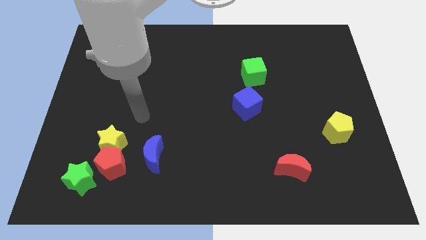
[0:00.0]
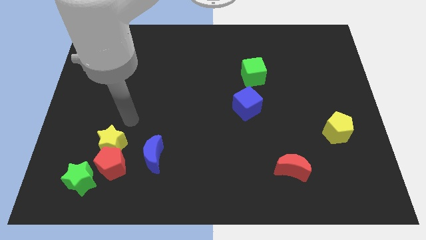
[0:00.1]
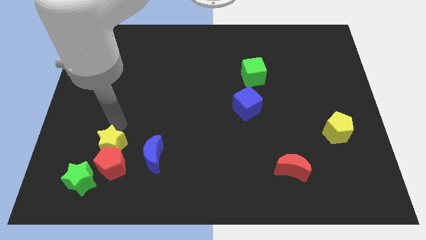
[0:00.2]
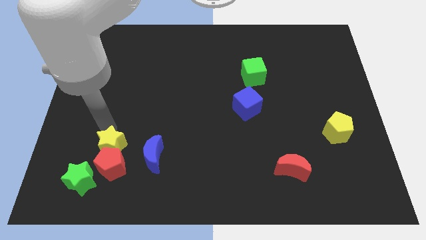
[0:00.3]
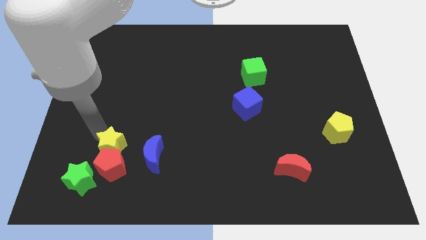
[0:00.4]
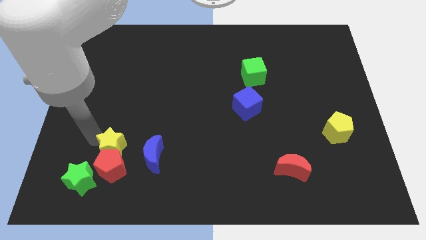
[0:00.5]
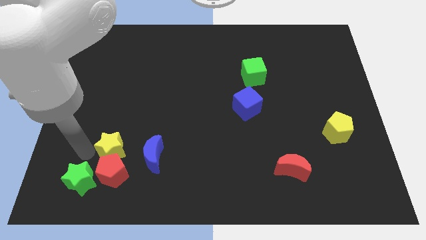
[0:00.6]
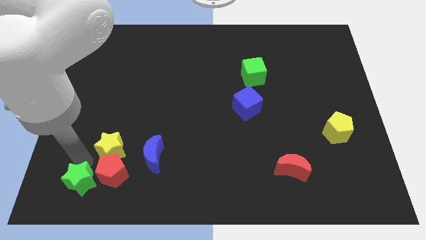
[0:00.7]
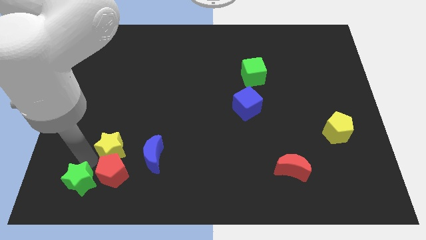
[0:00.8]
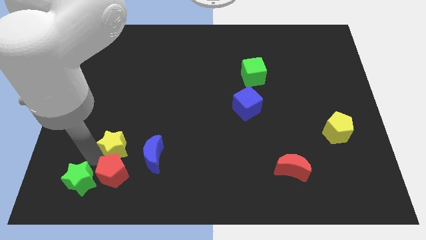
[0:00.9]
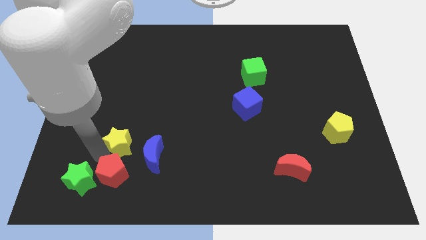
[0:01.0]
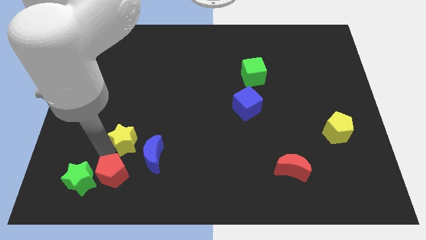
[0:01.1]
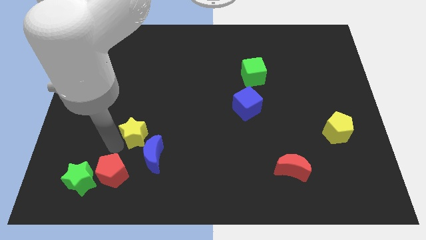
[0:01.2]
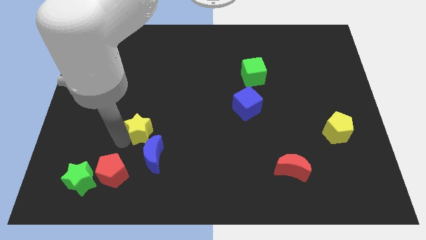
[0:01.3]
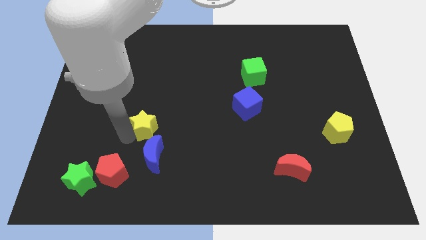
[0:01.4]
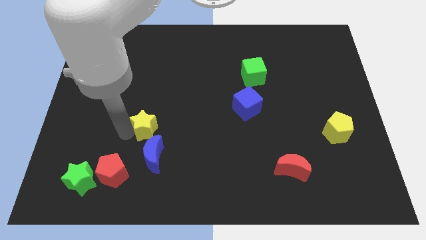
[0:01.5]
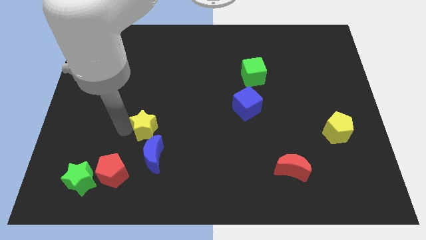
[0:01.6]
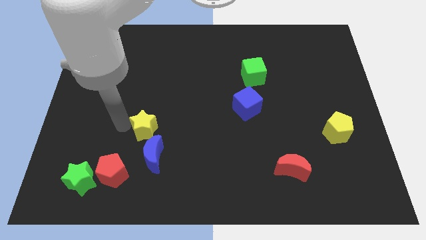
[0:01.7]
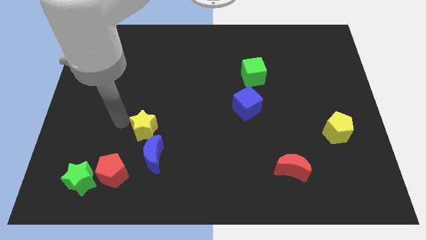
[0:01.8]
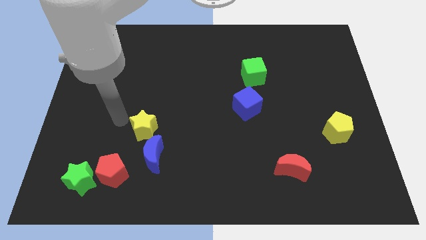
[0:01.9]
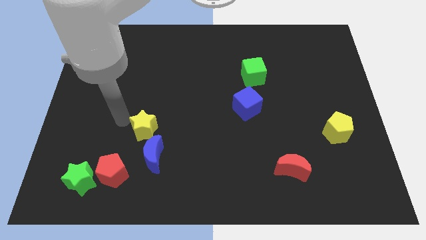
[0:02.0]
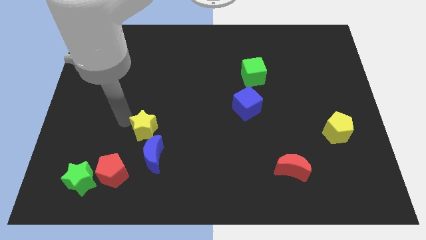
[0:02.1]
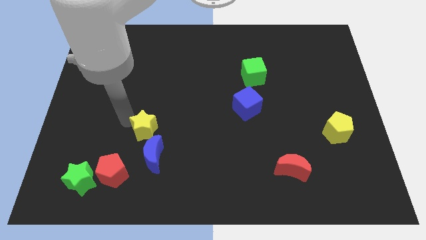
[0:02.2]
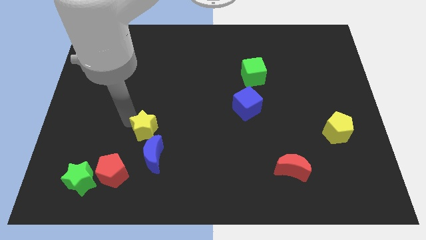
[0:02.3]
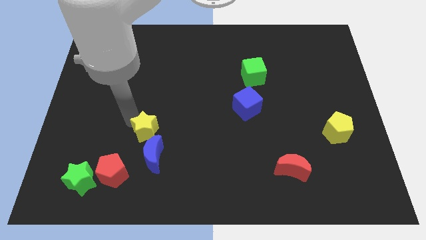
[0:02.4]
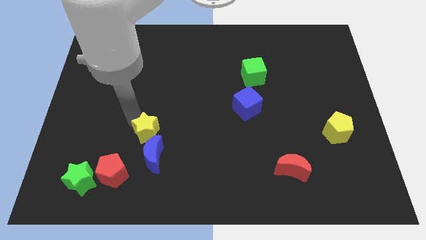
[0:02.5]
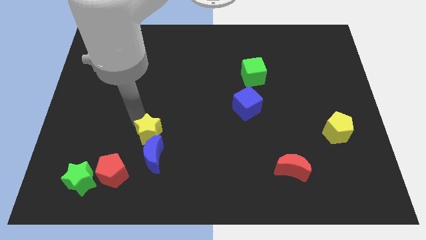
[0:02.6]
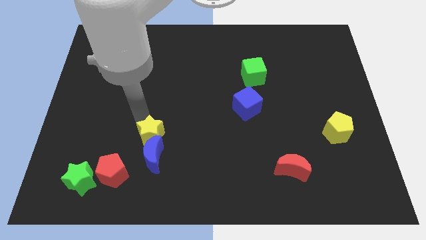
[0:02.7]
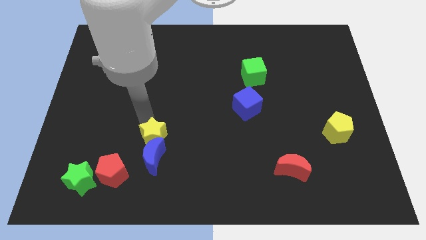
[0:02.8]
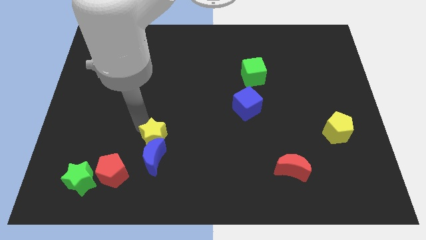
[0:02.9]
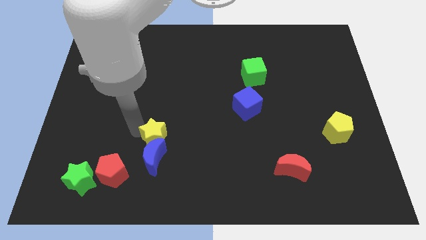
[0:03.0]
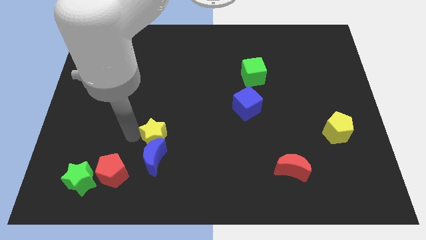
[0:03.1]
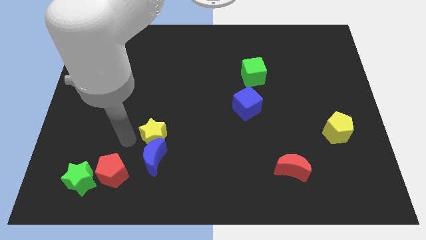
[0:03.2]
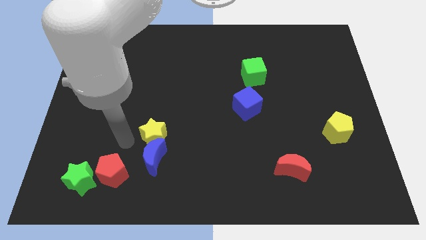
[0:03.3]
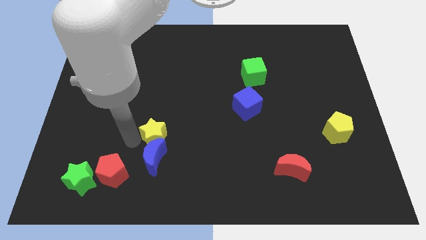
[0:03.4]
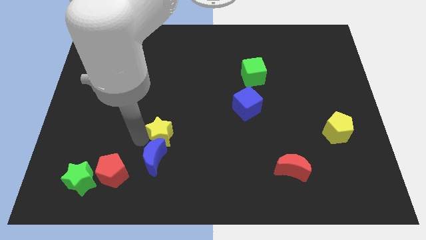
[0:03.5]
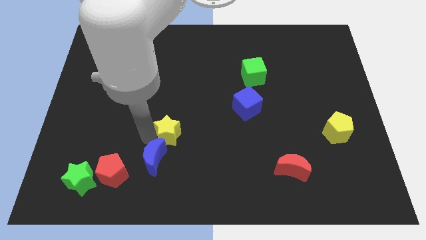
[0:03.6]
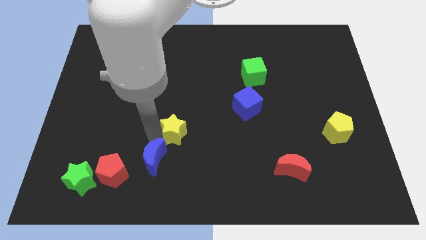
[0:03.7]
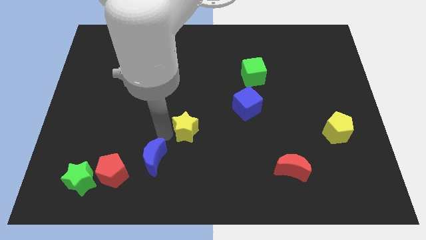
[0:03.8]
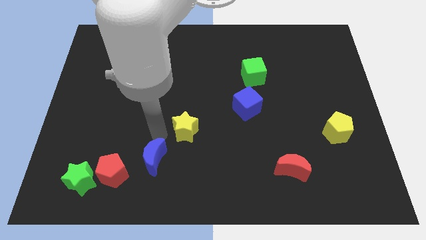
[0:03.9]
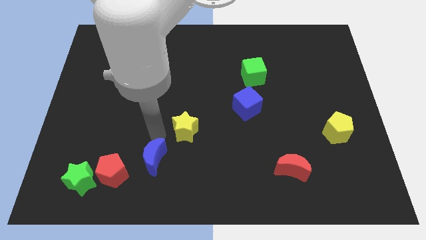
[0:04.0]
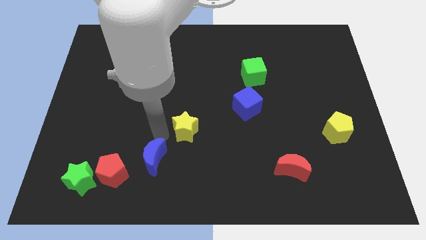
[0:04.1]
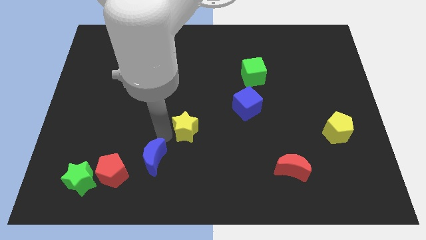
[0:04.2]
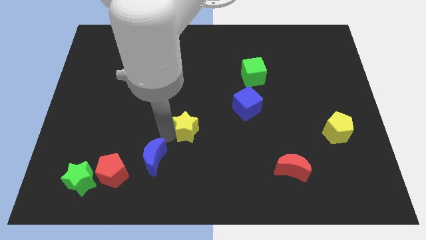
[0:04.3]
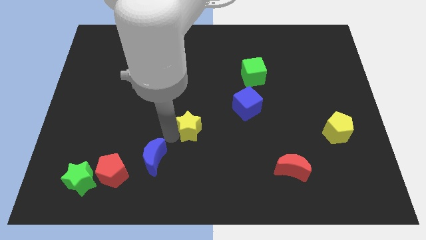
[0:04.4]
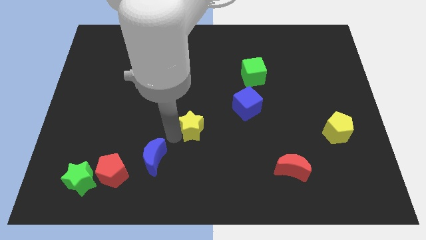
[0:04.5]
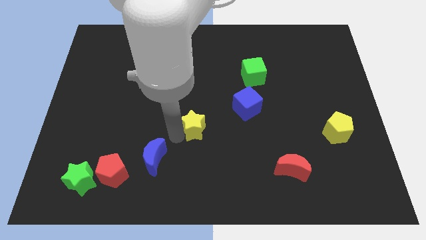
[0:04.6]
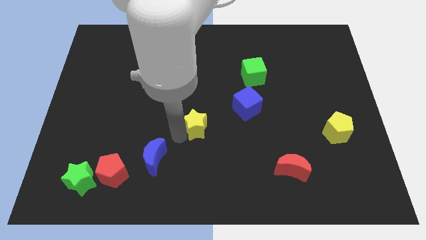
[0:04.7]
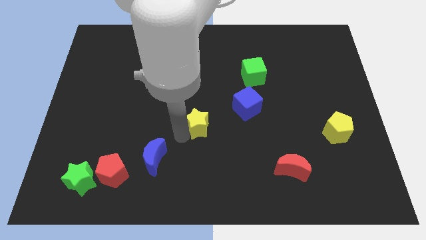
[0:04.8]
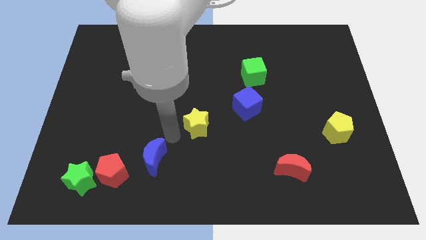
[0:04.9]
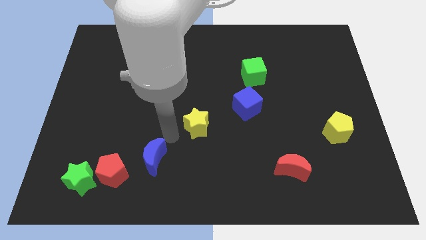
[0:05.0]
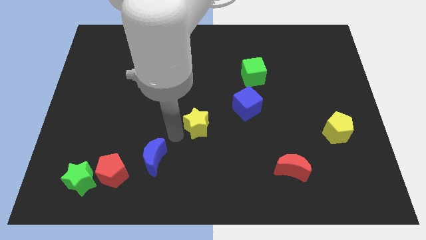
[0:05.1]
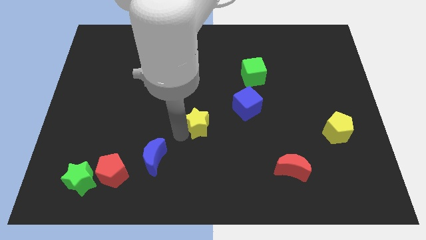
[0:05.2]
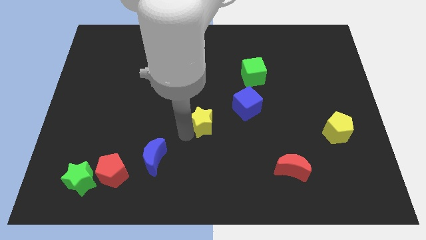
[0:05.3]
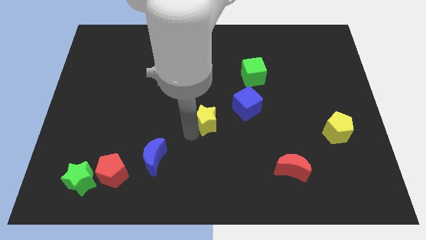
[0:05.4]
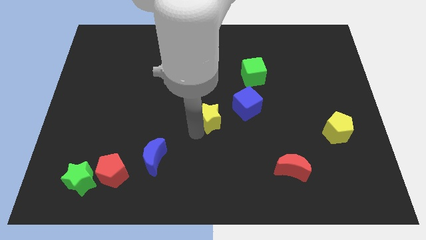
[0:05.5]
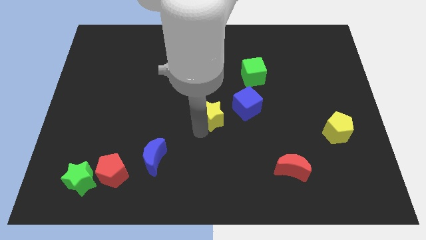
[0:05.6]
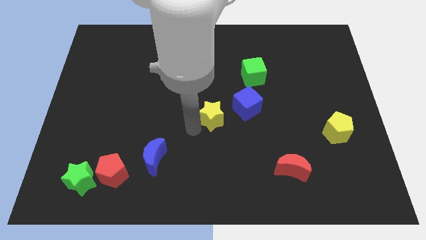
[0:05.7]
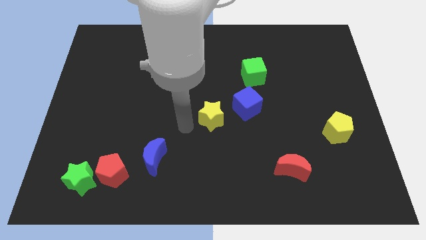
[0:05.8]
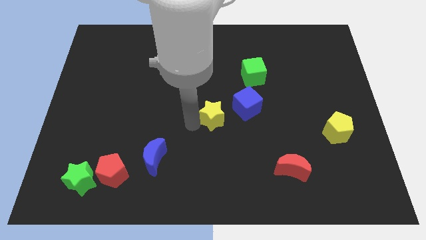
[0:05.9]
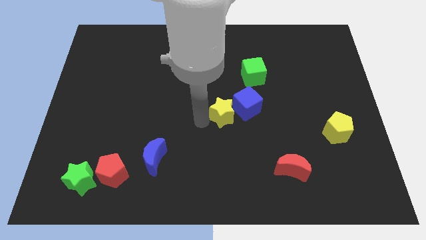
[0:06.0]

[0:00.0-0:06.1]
move the yellow star next to the blue cube

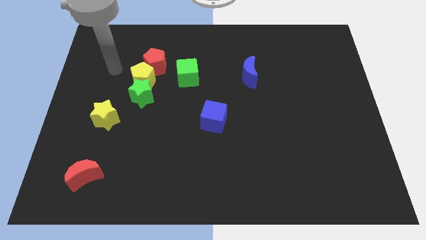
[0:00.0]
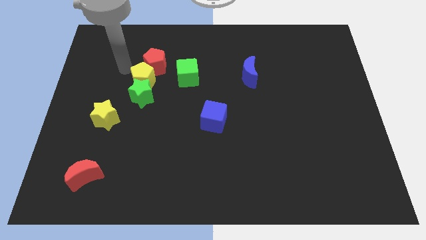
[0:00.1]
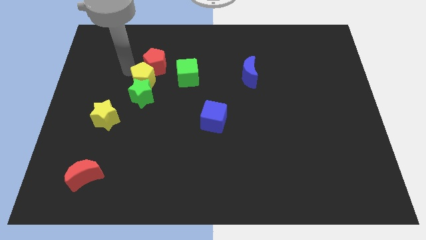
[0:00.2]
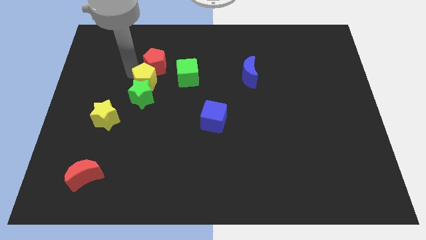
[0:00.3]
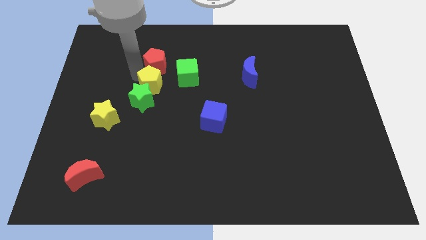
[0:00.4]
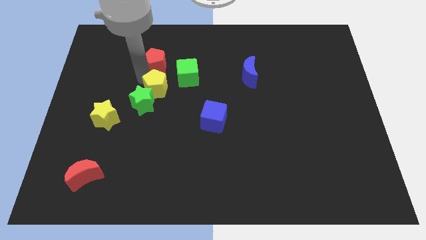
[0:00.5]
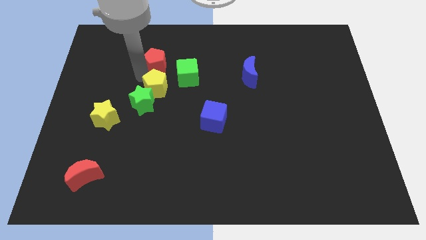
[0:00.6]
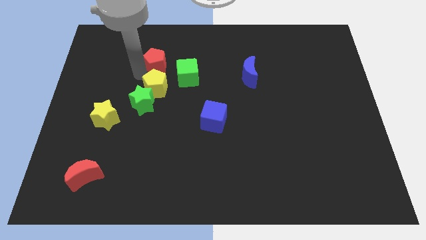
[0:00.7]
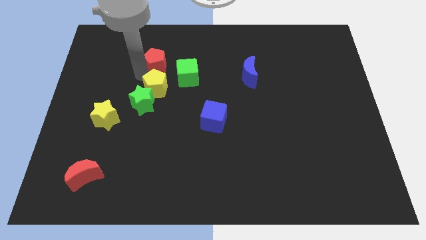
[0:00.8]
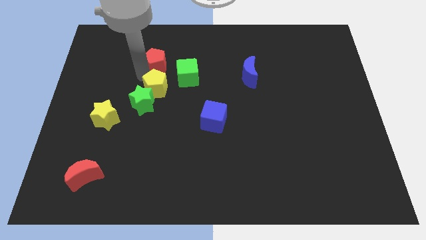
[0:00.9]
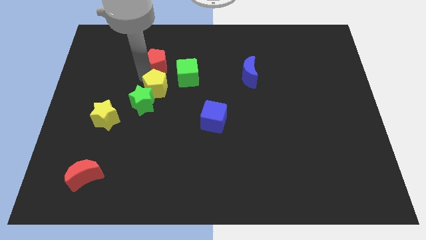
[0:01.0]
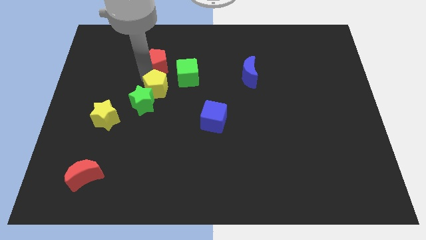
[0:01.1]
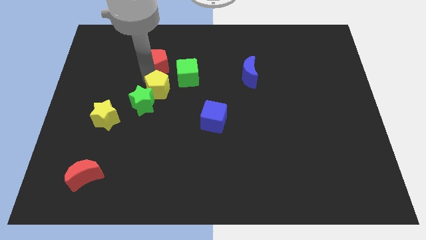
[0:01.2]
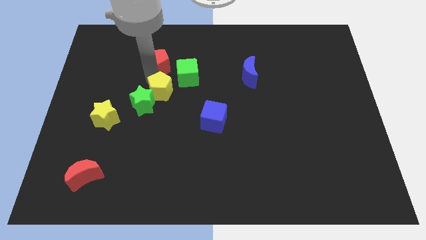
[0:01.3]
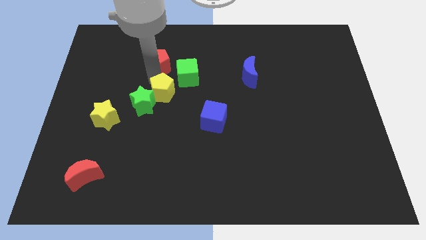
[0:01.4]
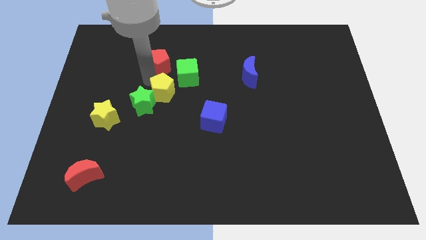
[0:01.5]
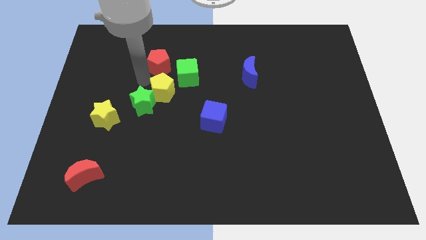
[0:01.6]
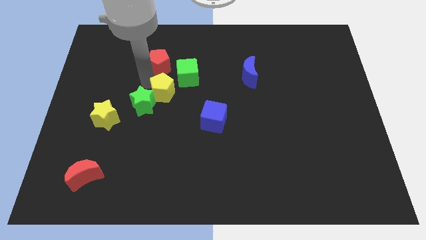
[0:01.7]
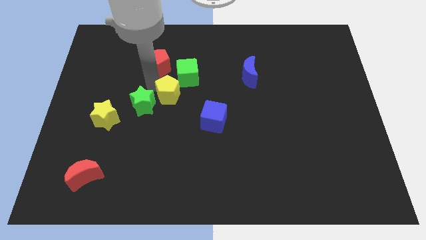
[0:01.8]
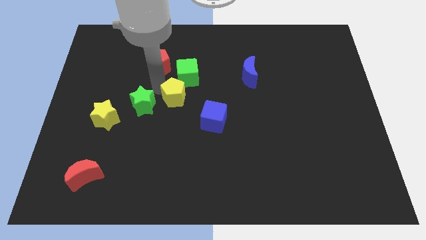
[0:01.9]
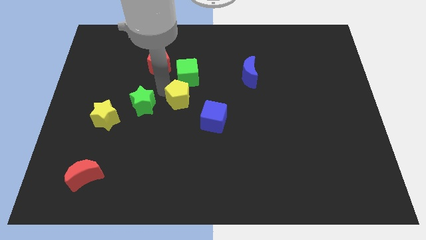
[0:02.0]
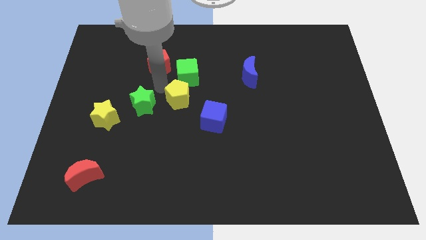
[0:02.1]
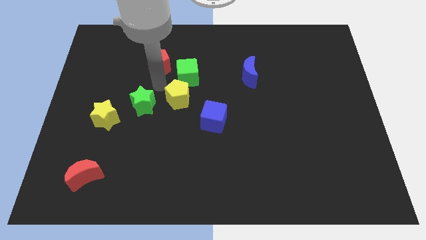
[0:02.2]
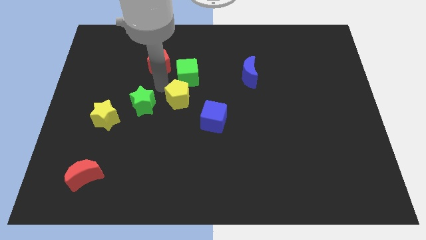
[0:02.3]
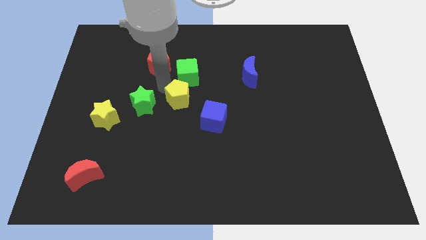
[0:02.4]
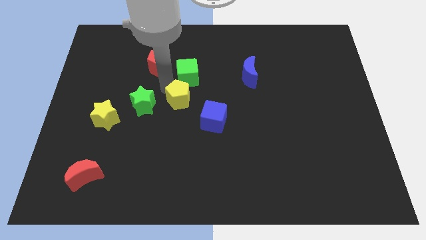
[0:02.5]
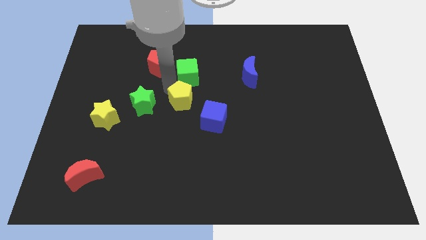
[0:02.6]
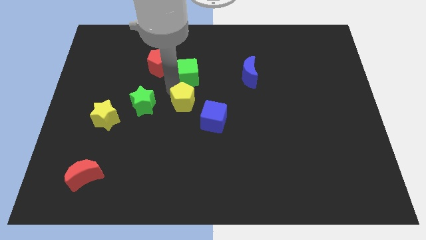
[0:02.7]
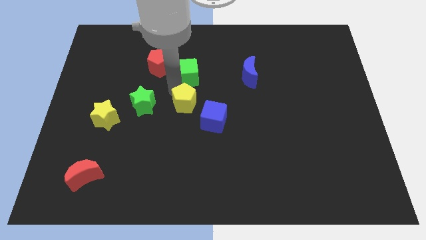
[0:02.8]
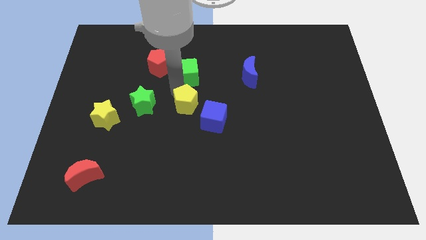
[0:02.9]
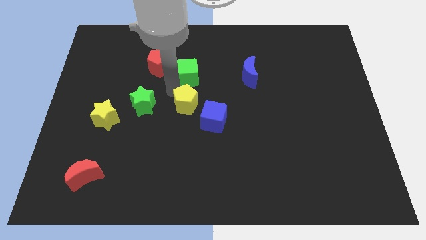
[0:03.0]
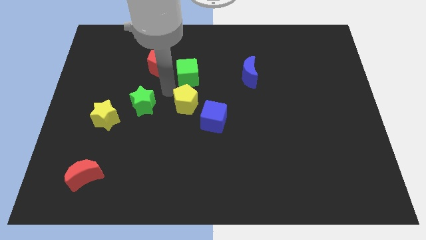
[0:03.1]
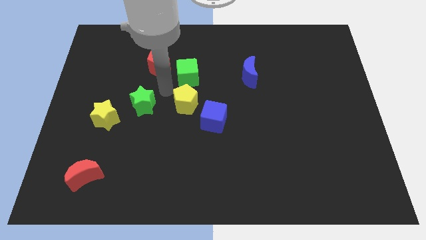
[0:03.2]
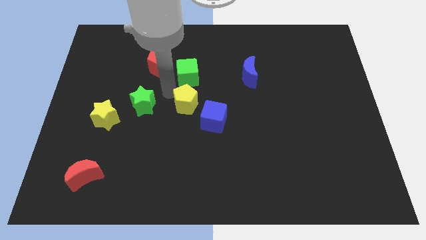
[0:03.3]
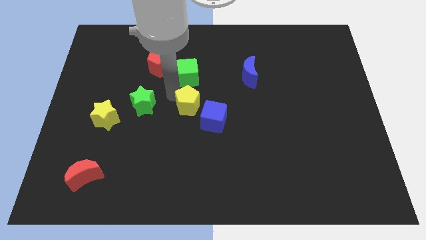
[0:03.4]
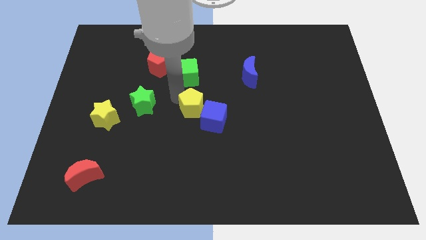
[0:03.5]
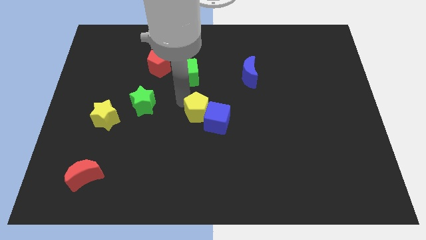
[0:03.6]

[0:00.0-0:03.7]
put the yellow pentagon to the blue cube
